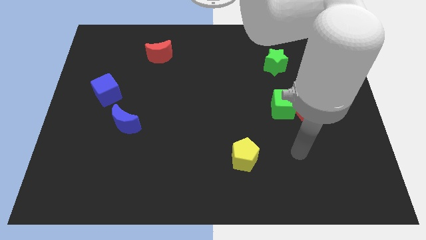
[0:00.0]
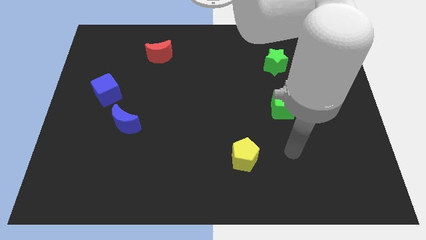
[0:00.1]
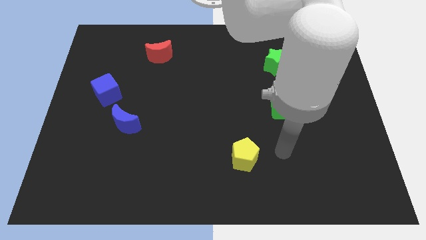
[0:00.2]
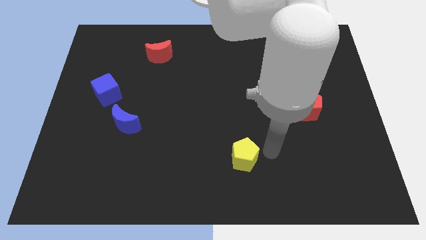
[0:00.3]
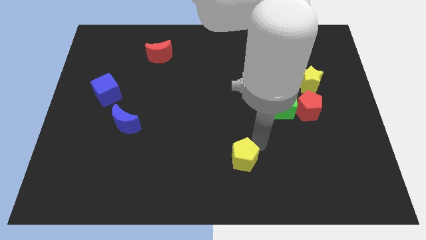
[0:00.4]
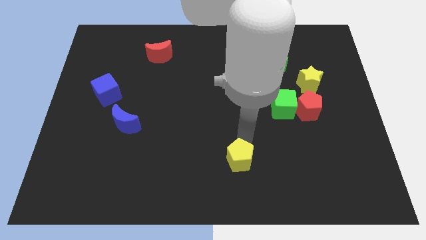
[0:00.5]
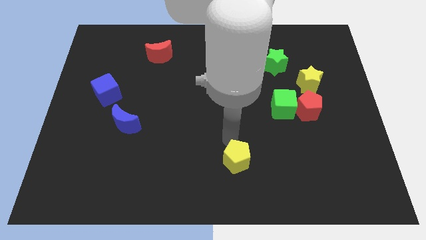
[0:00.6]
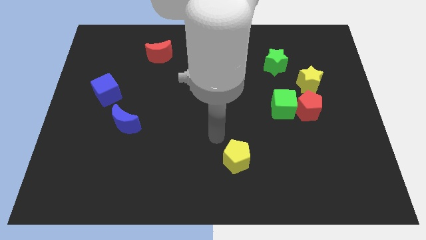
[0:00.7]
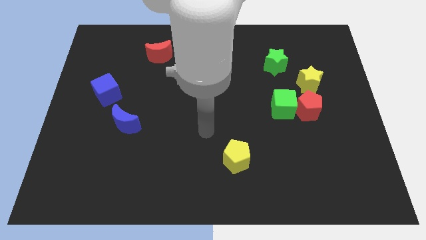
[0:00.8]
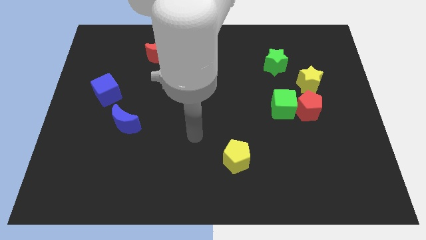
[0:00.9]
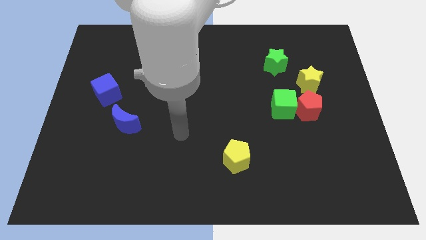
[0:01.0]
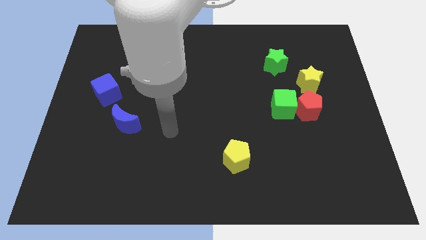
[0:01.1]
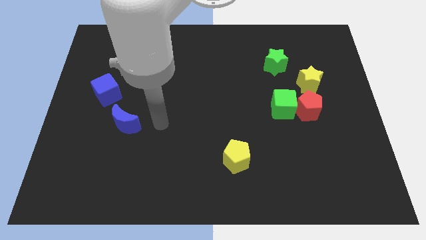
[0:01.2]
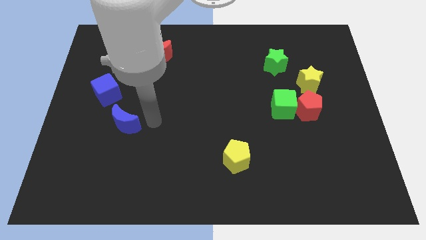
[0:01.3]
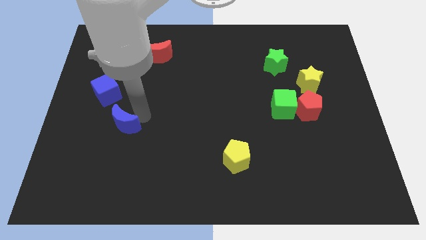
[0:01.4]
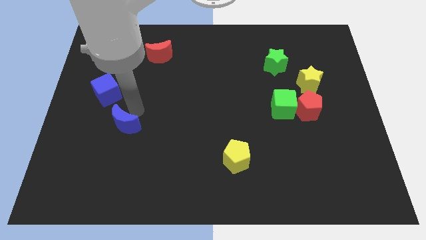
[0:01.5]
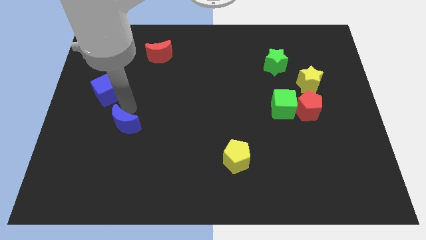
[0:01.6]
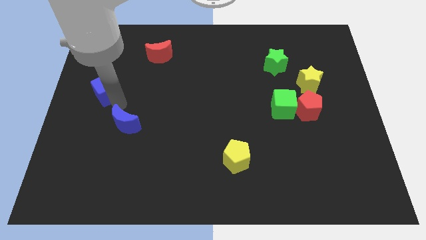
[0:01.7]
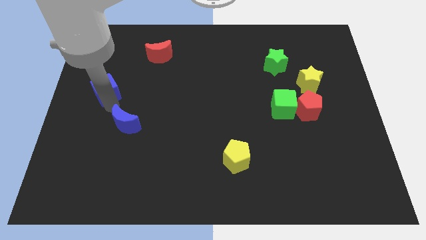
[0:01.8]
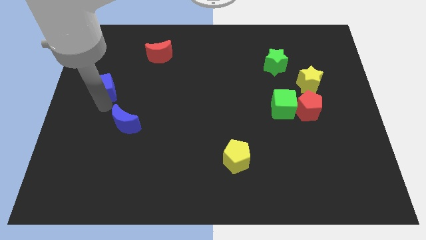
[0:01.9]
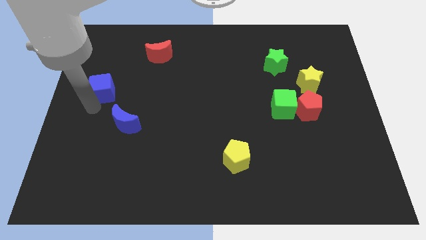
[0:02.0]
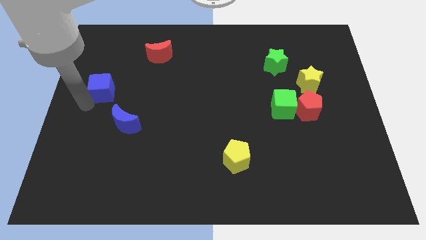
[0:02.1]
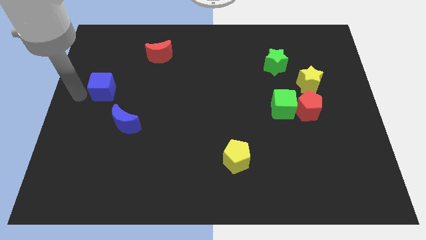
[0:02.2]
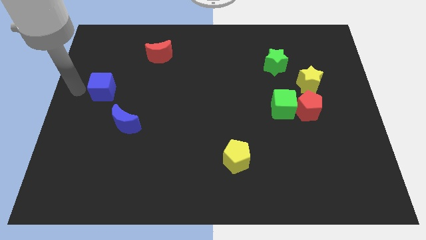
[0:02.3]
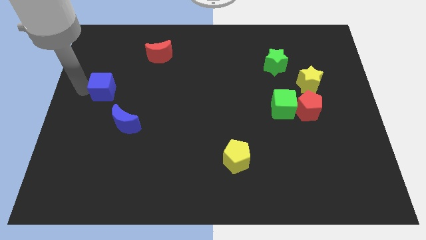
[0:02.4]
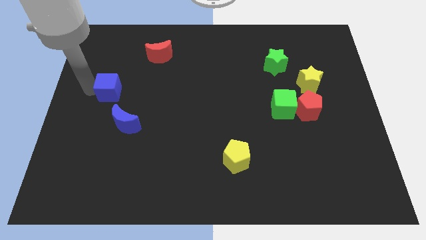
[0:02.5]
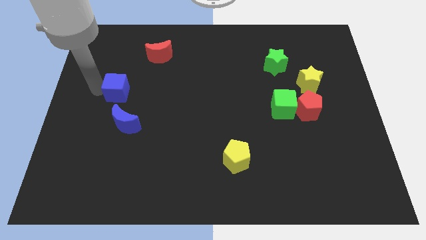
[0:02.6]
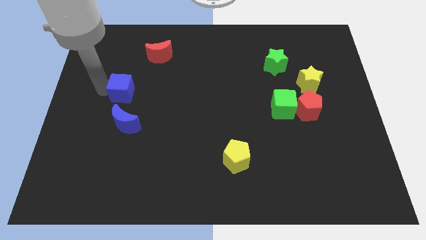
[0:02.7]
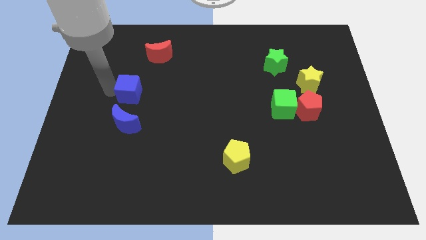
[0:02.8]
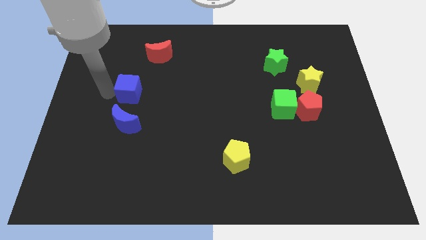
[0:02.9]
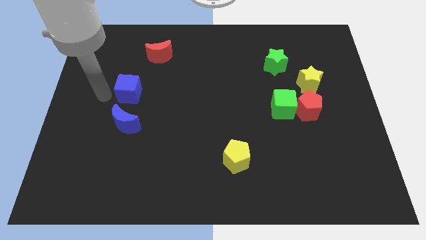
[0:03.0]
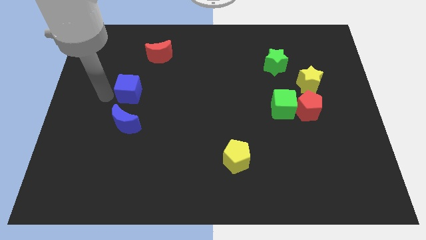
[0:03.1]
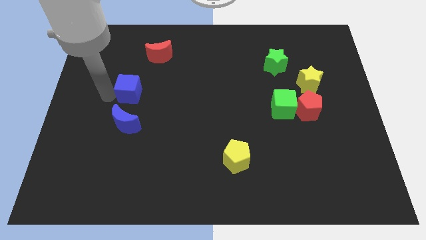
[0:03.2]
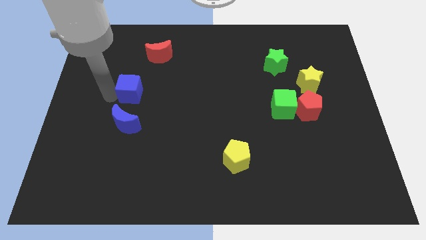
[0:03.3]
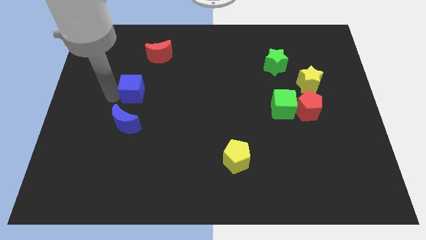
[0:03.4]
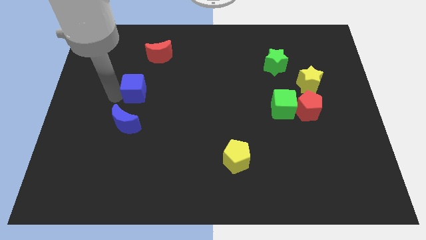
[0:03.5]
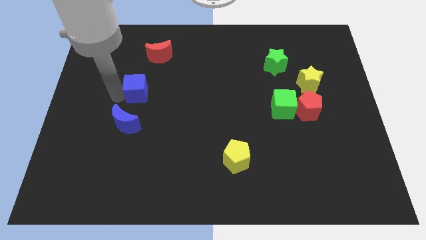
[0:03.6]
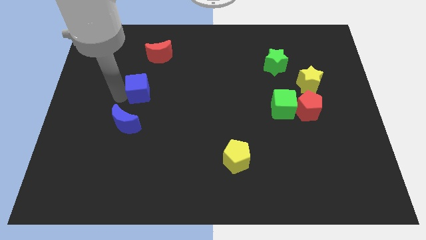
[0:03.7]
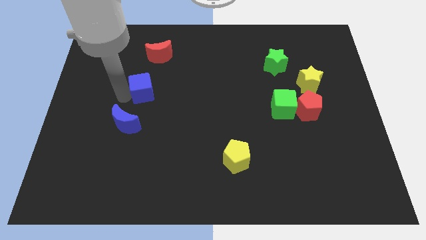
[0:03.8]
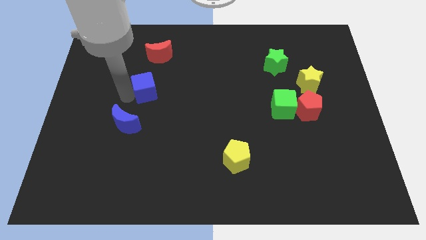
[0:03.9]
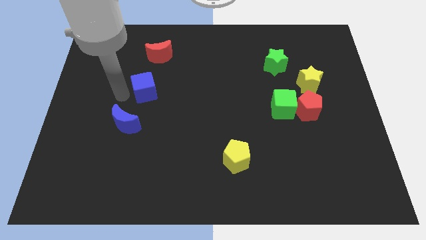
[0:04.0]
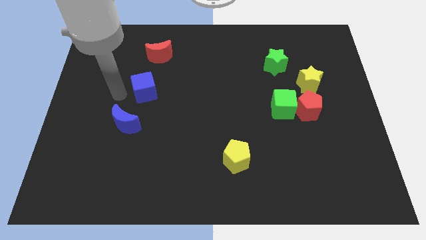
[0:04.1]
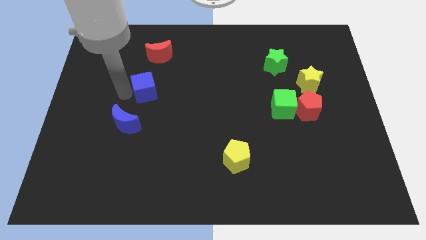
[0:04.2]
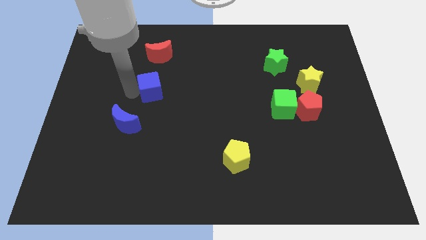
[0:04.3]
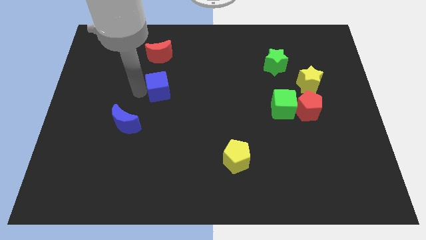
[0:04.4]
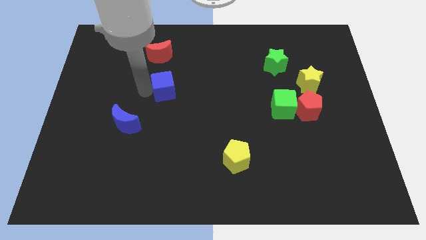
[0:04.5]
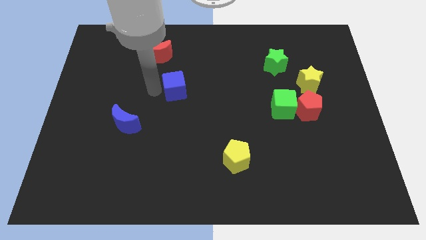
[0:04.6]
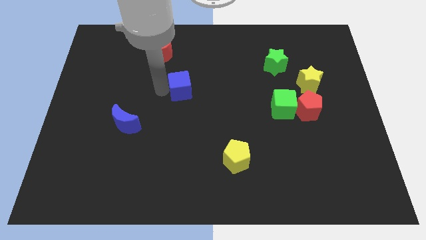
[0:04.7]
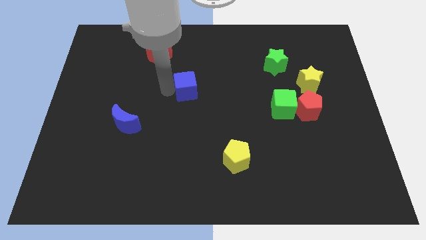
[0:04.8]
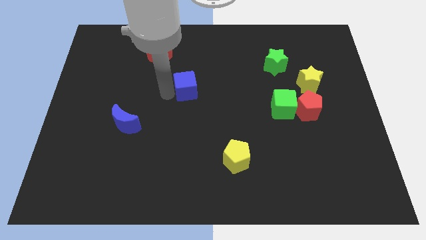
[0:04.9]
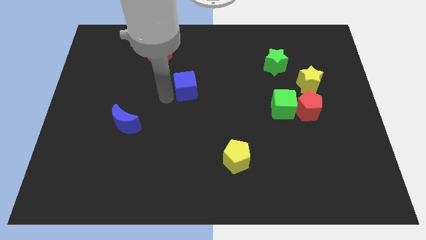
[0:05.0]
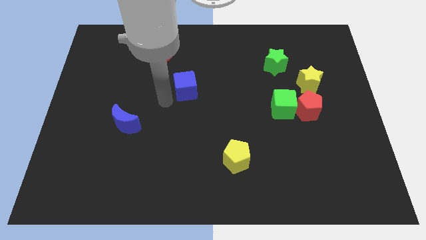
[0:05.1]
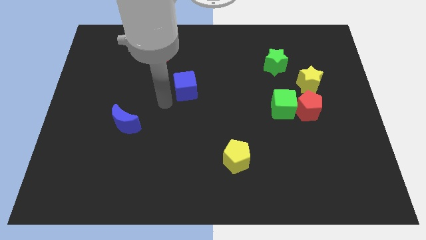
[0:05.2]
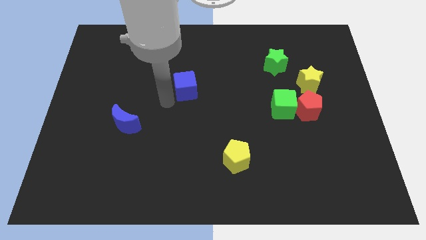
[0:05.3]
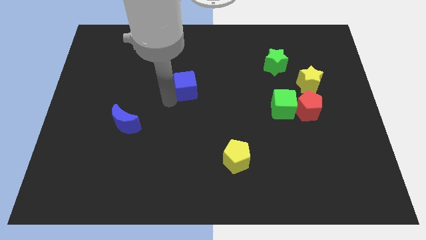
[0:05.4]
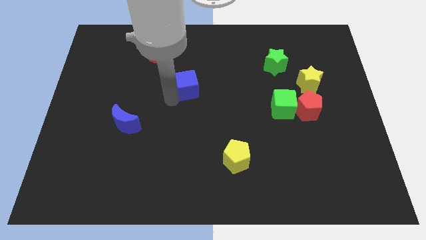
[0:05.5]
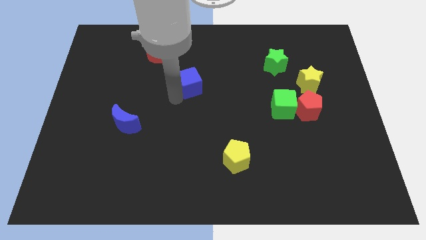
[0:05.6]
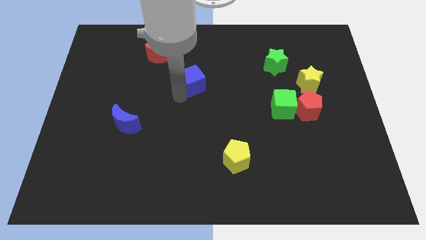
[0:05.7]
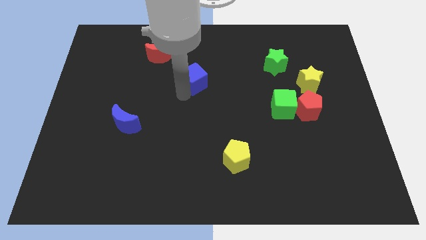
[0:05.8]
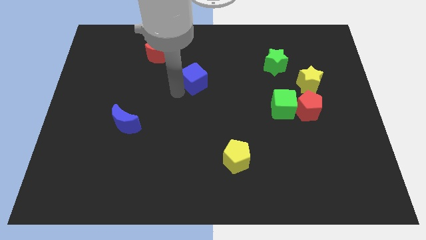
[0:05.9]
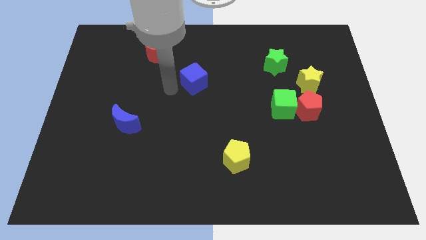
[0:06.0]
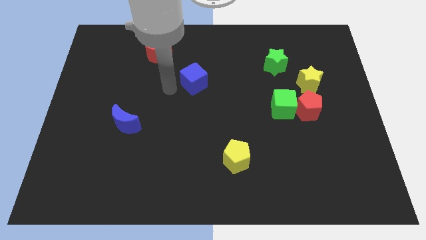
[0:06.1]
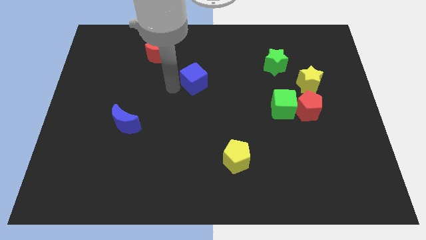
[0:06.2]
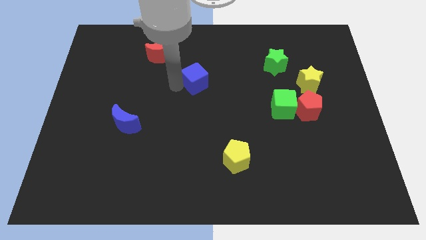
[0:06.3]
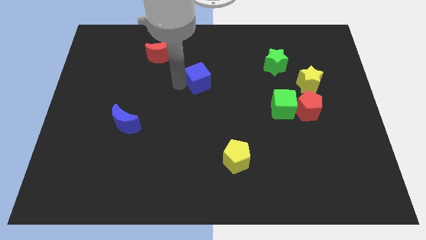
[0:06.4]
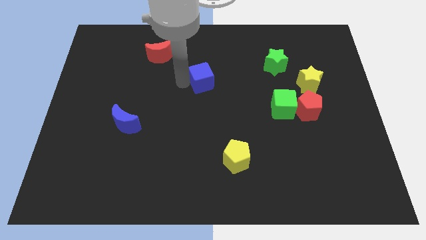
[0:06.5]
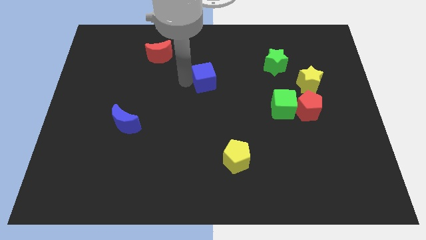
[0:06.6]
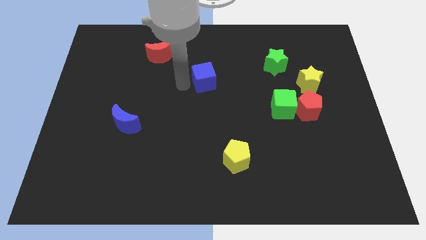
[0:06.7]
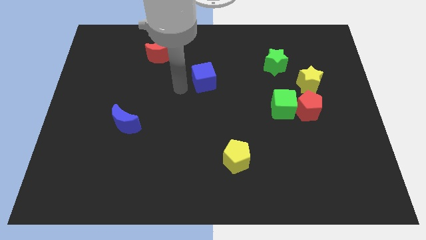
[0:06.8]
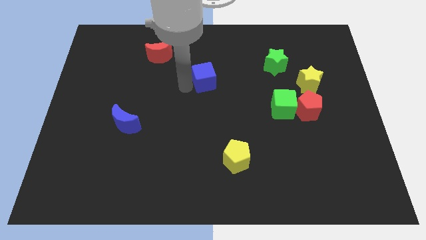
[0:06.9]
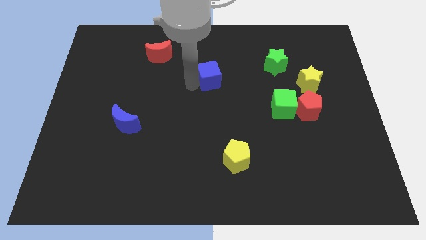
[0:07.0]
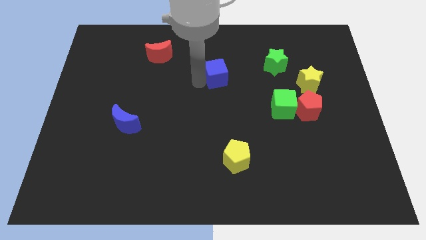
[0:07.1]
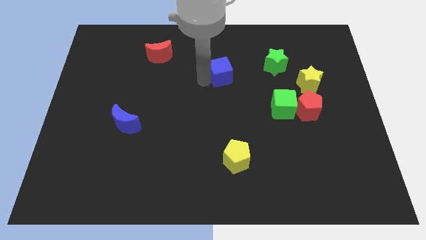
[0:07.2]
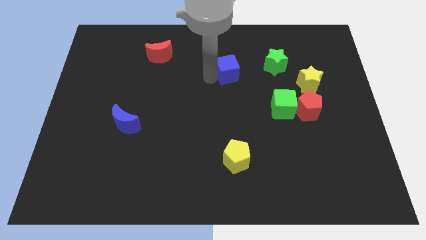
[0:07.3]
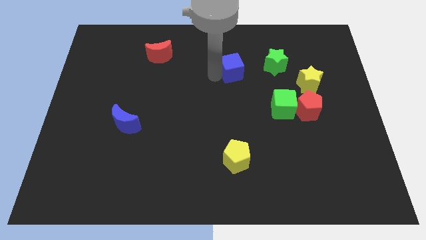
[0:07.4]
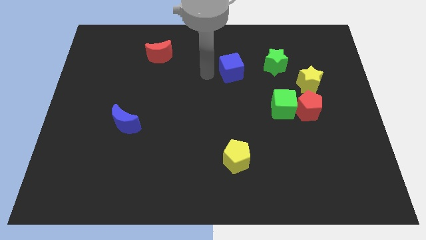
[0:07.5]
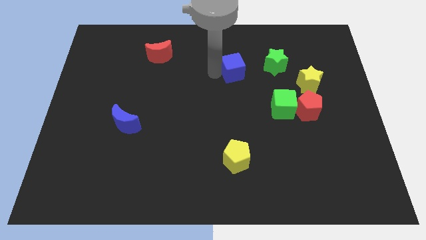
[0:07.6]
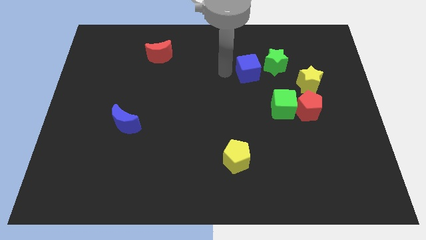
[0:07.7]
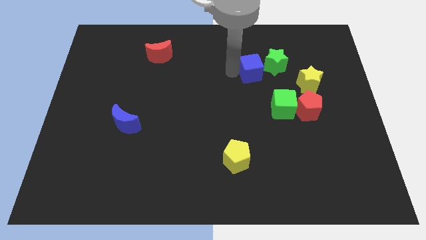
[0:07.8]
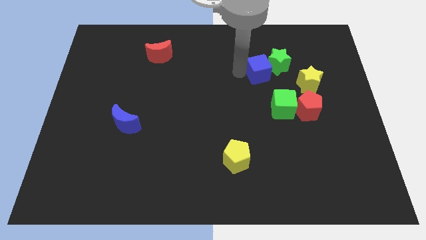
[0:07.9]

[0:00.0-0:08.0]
slide the blue cube close to the green star
